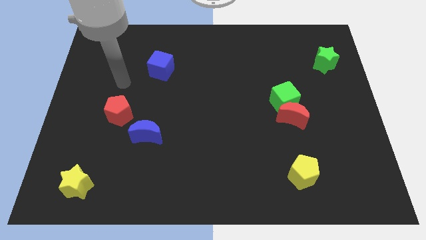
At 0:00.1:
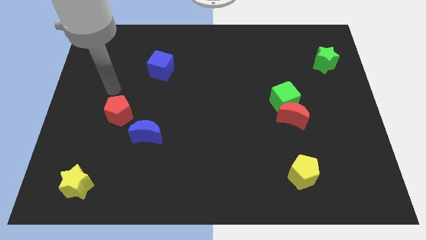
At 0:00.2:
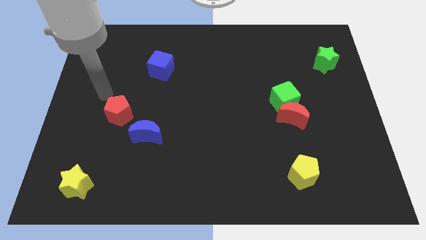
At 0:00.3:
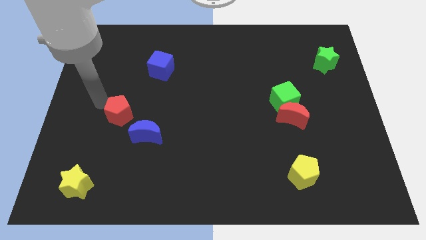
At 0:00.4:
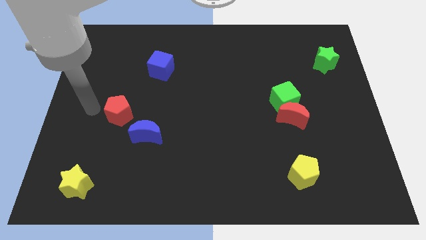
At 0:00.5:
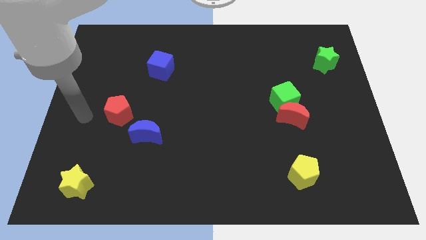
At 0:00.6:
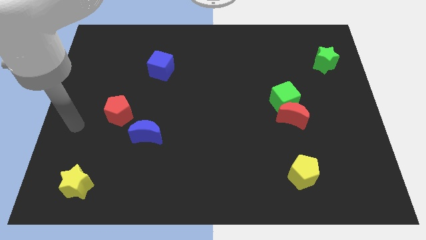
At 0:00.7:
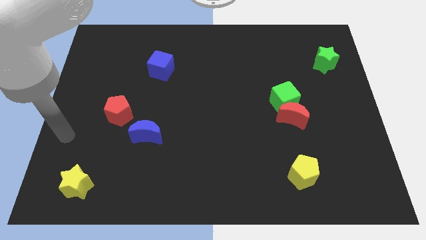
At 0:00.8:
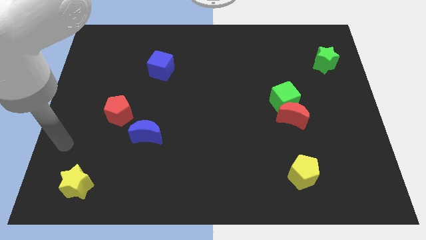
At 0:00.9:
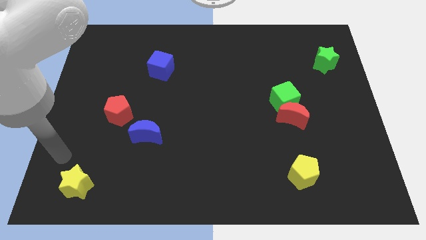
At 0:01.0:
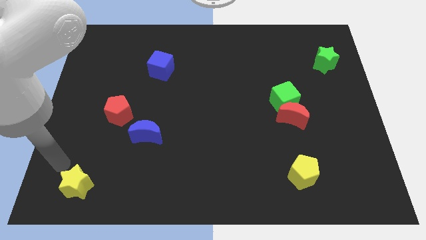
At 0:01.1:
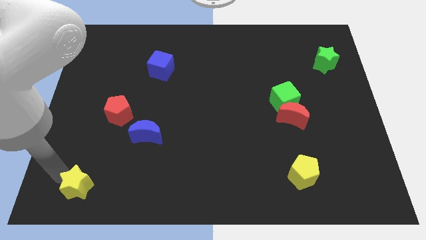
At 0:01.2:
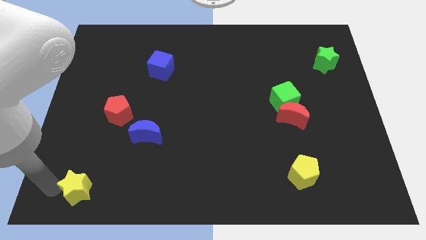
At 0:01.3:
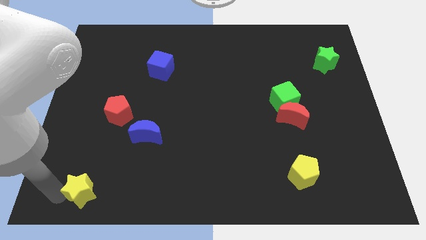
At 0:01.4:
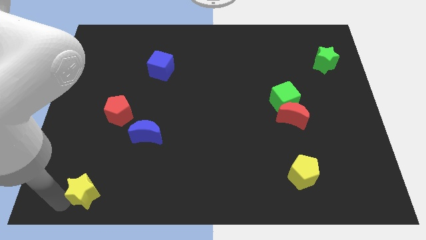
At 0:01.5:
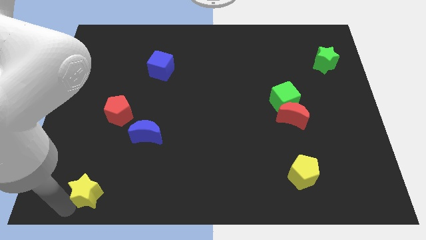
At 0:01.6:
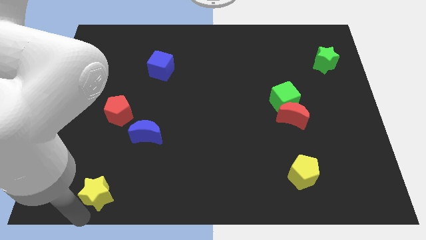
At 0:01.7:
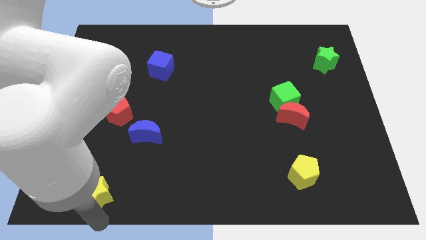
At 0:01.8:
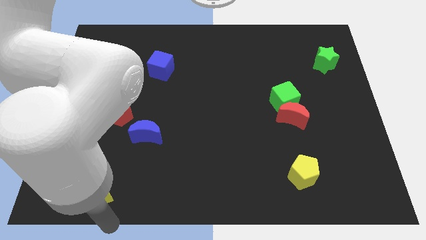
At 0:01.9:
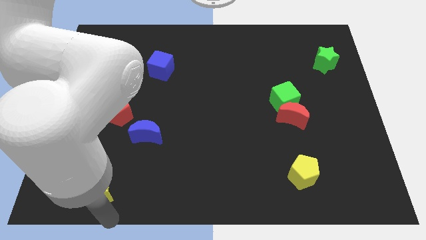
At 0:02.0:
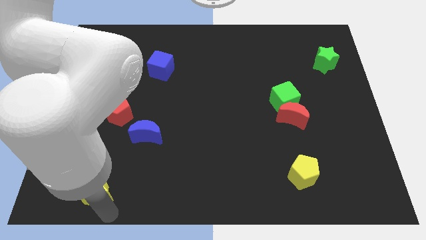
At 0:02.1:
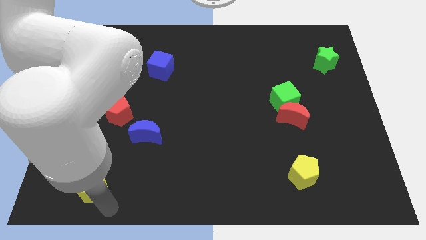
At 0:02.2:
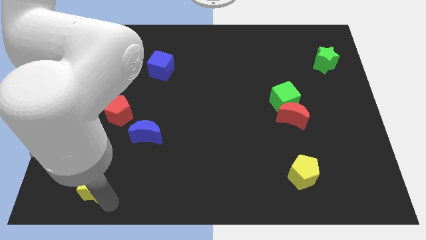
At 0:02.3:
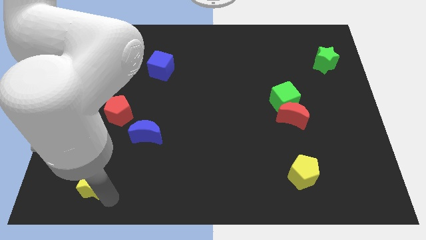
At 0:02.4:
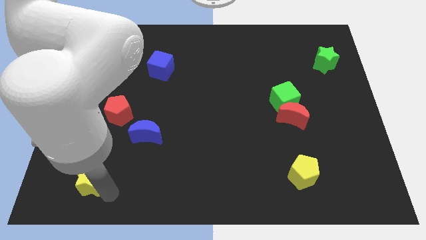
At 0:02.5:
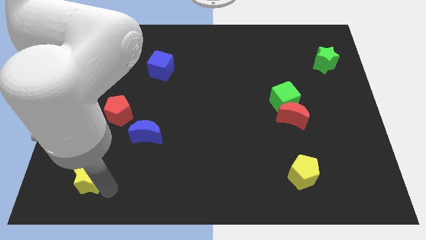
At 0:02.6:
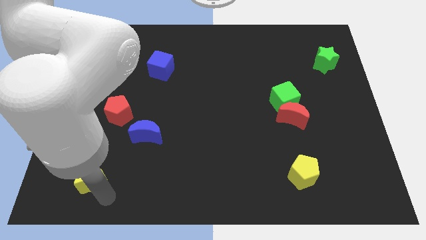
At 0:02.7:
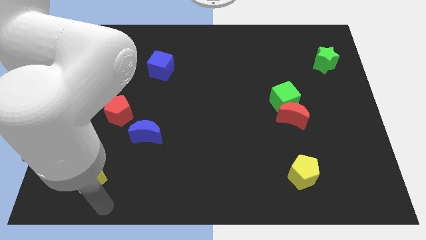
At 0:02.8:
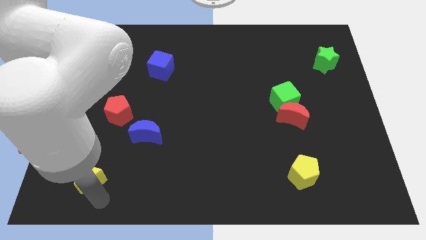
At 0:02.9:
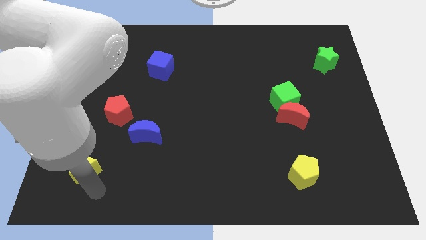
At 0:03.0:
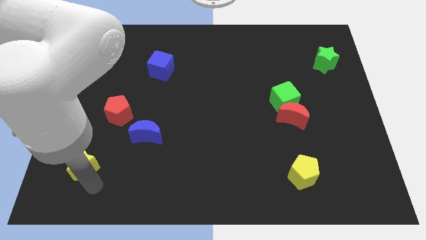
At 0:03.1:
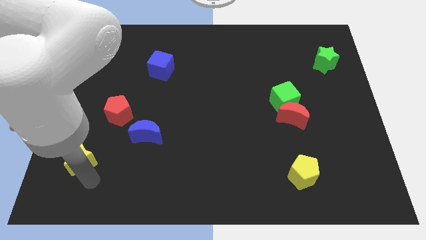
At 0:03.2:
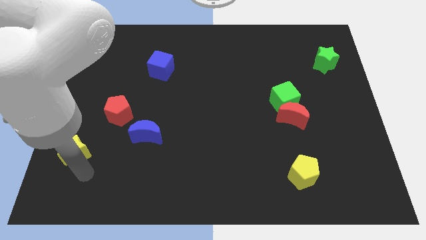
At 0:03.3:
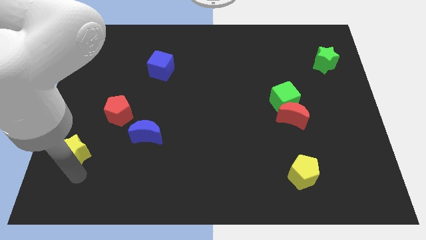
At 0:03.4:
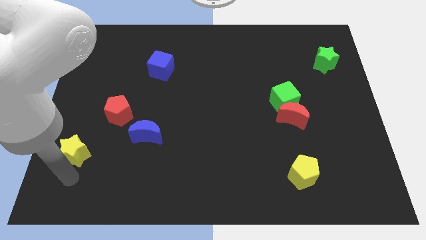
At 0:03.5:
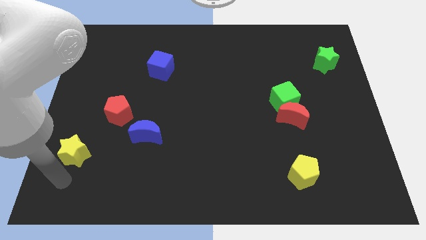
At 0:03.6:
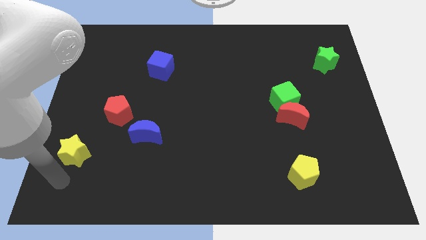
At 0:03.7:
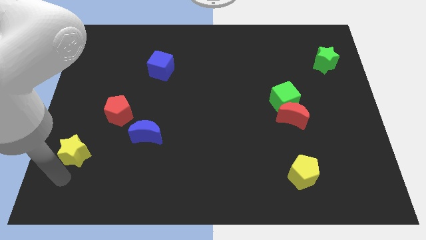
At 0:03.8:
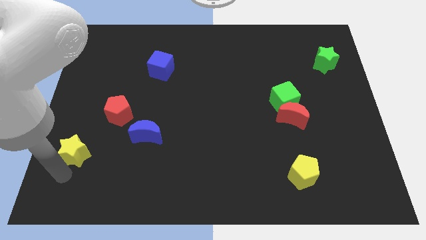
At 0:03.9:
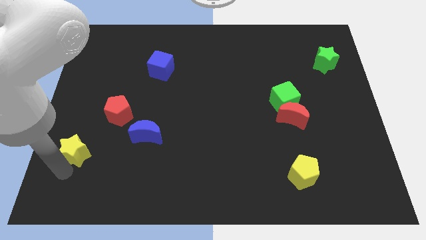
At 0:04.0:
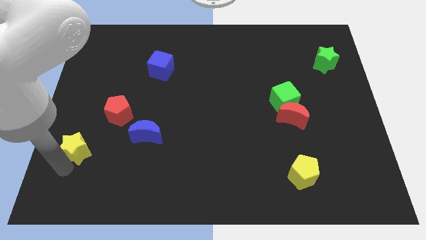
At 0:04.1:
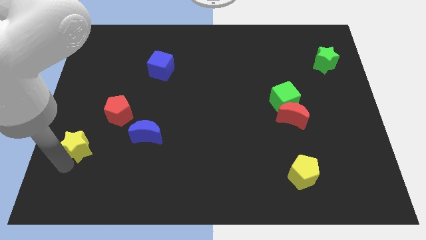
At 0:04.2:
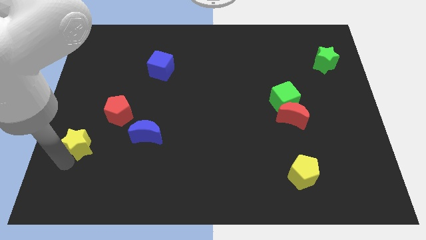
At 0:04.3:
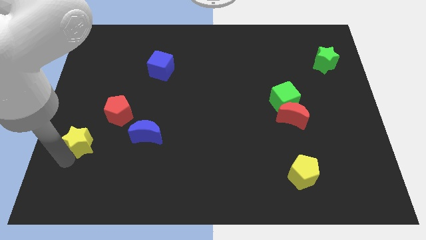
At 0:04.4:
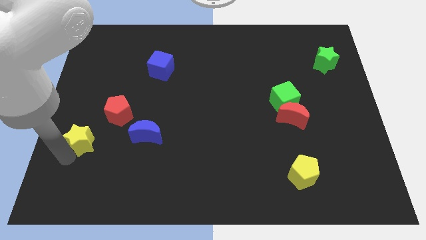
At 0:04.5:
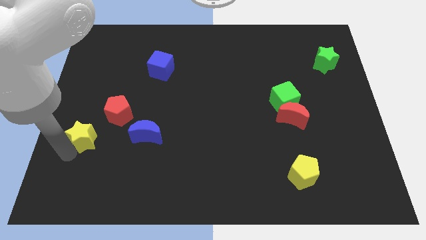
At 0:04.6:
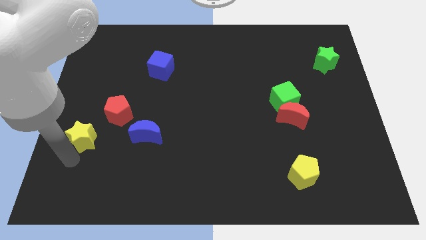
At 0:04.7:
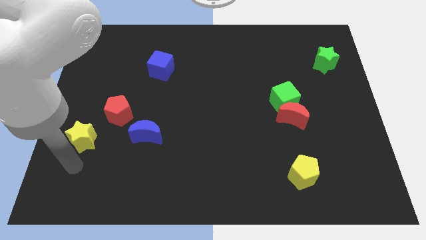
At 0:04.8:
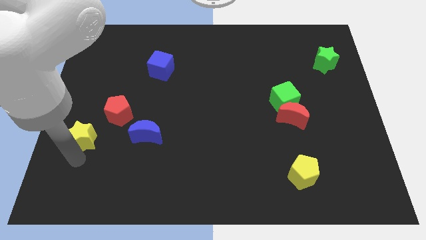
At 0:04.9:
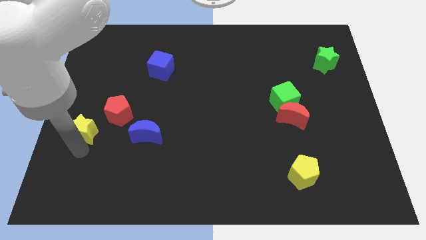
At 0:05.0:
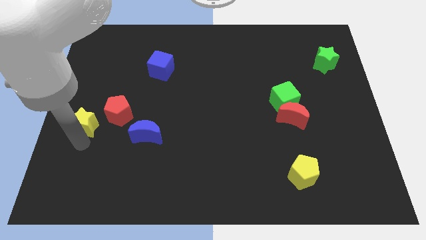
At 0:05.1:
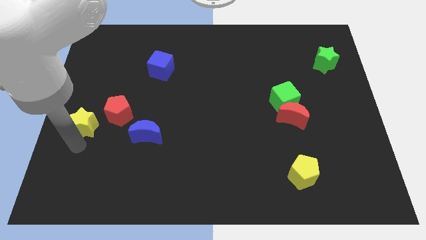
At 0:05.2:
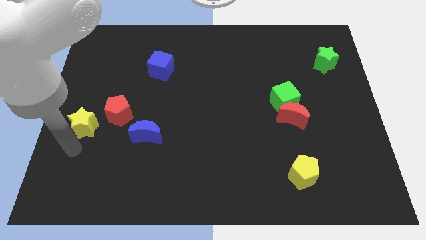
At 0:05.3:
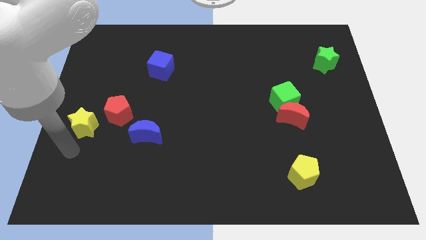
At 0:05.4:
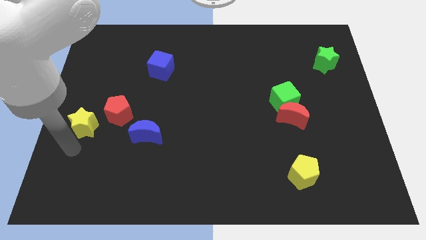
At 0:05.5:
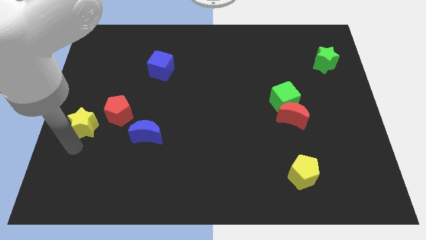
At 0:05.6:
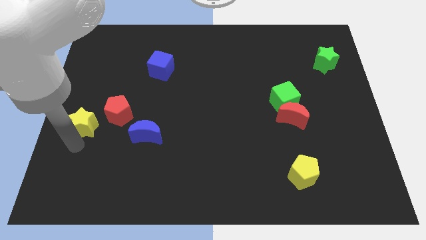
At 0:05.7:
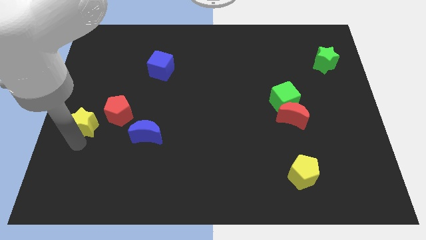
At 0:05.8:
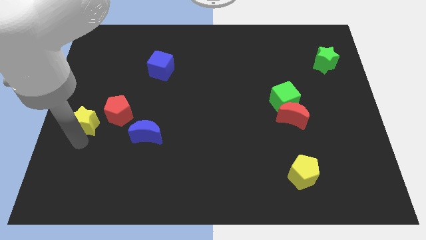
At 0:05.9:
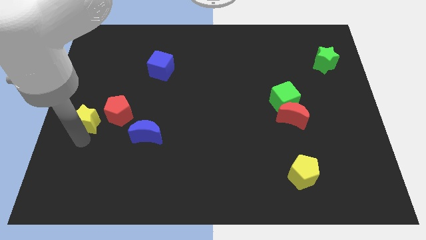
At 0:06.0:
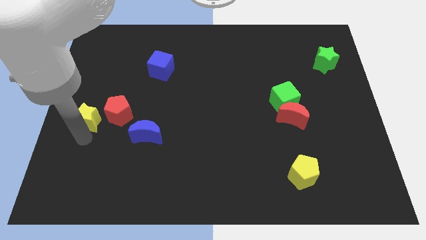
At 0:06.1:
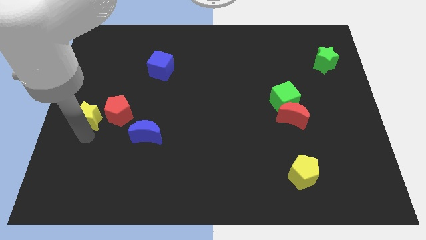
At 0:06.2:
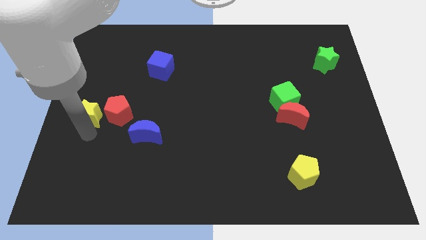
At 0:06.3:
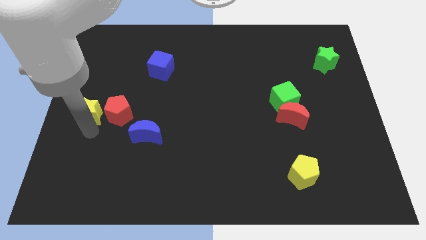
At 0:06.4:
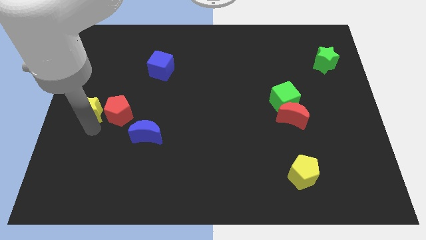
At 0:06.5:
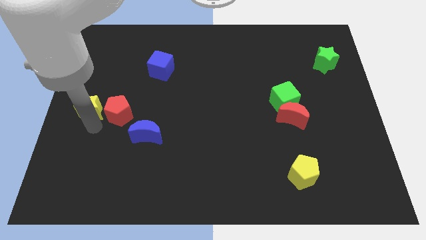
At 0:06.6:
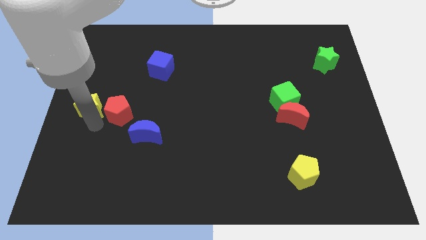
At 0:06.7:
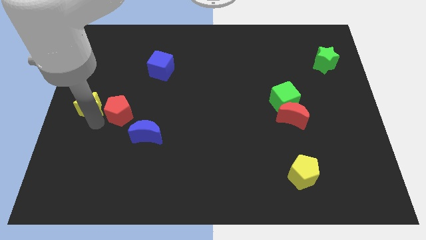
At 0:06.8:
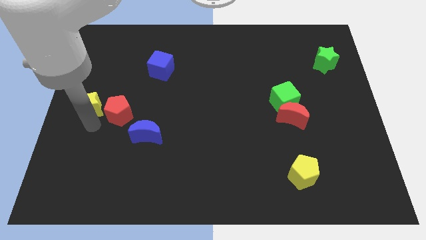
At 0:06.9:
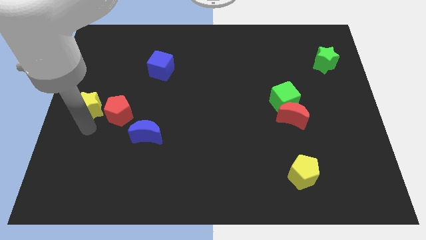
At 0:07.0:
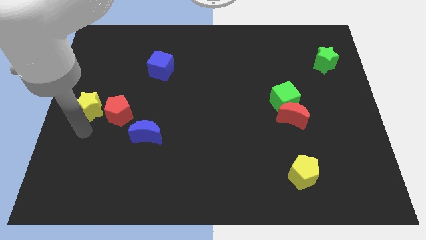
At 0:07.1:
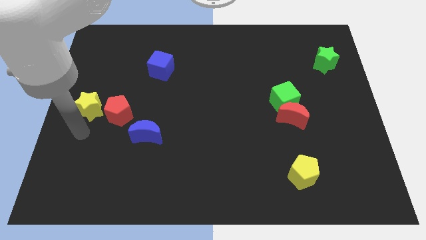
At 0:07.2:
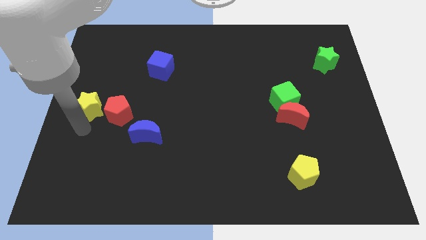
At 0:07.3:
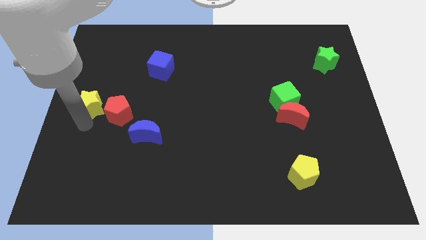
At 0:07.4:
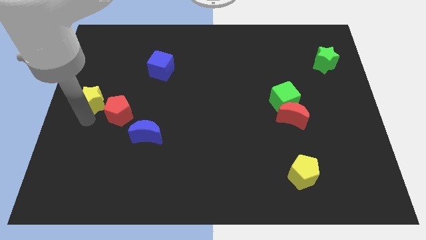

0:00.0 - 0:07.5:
slide the yellow star upwards

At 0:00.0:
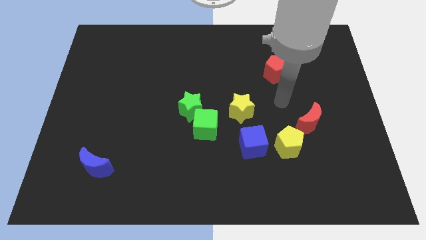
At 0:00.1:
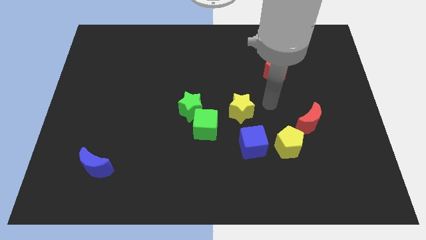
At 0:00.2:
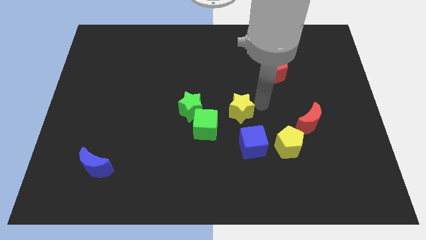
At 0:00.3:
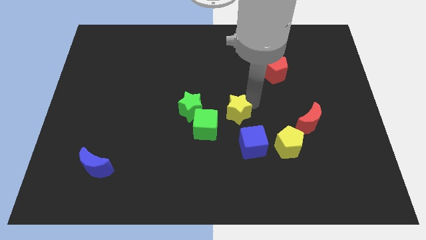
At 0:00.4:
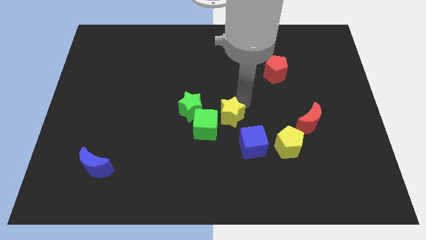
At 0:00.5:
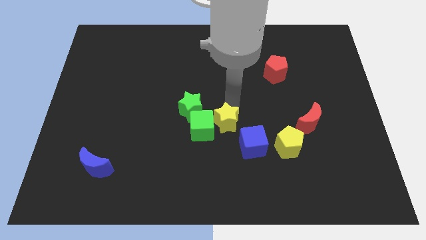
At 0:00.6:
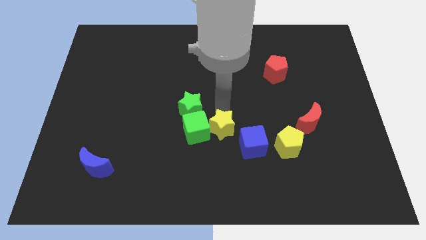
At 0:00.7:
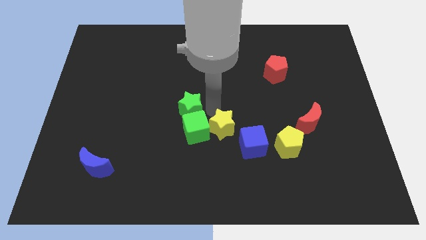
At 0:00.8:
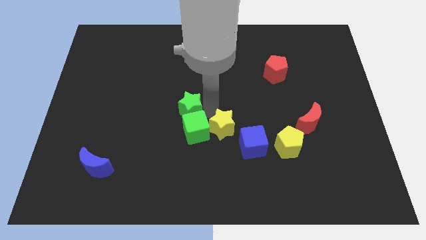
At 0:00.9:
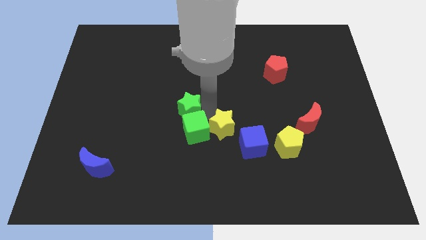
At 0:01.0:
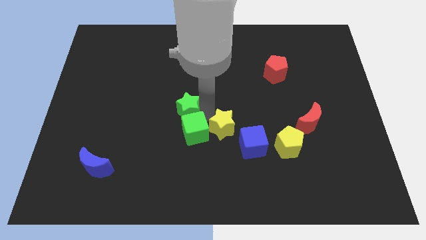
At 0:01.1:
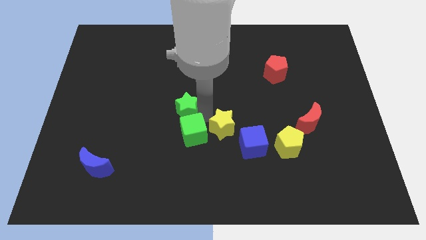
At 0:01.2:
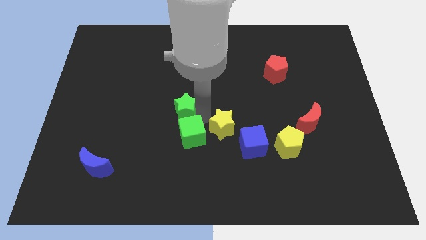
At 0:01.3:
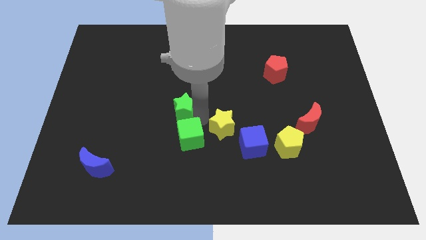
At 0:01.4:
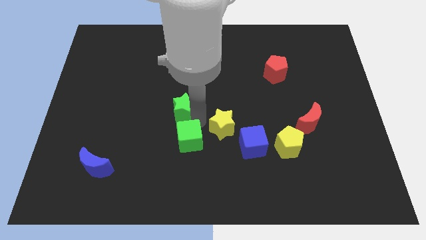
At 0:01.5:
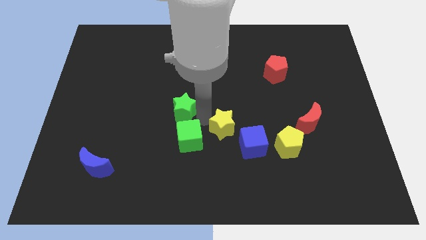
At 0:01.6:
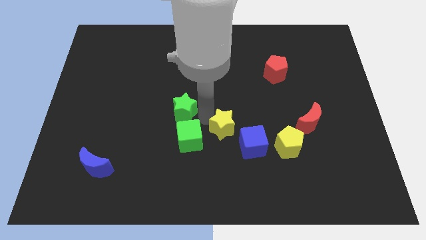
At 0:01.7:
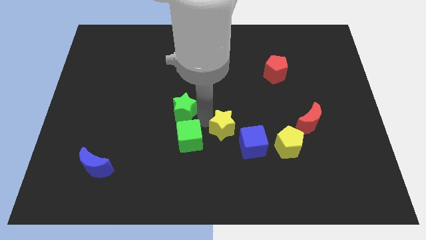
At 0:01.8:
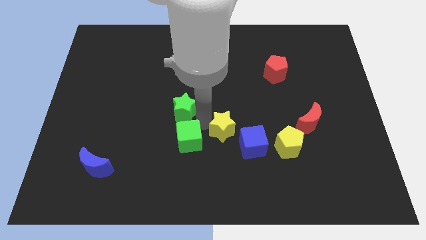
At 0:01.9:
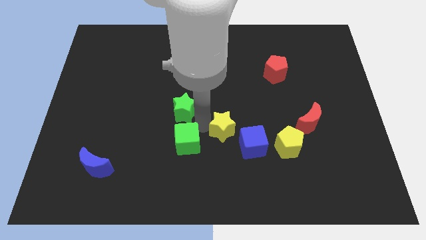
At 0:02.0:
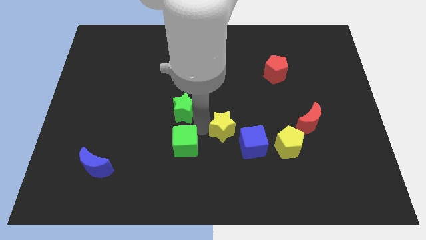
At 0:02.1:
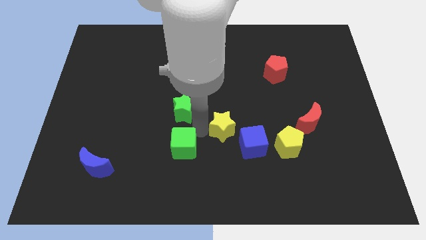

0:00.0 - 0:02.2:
push the green cube a little downwards and then left
